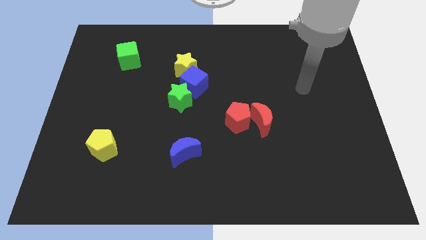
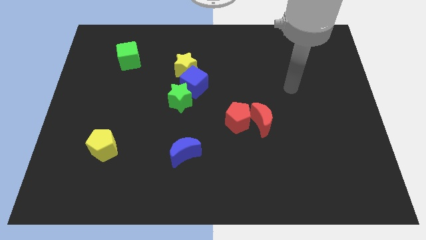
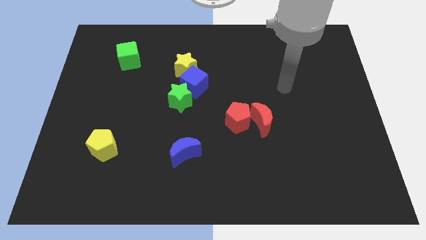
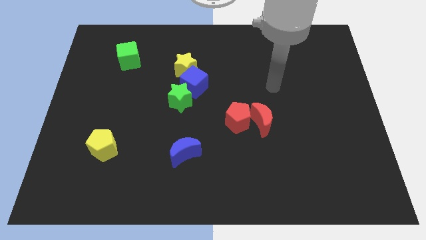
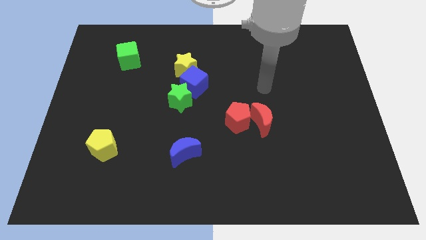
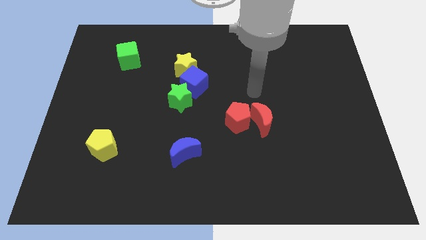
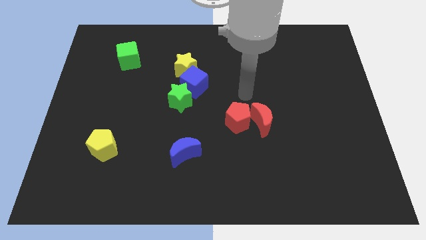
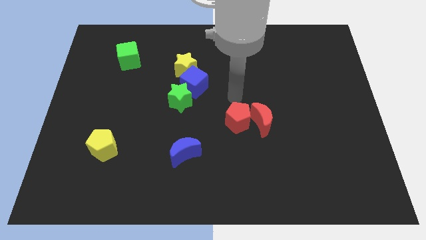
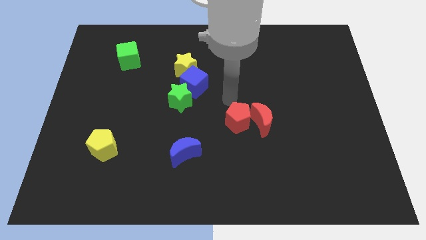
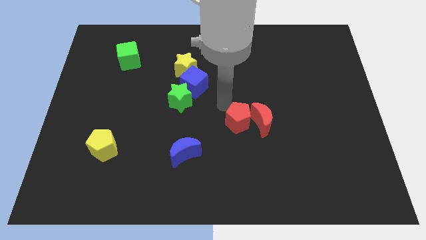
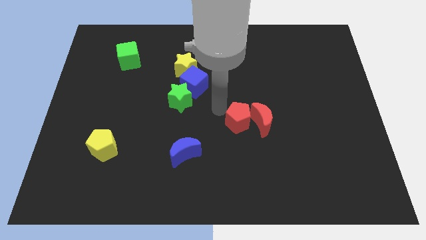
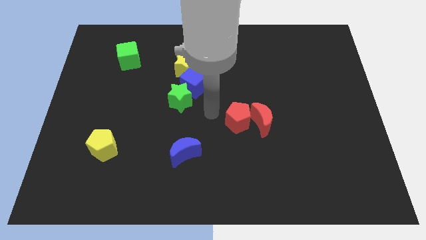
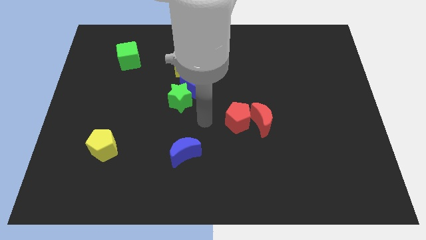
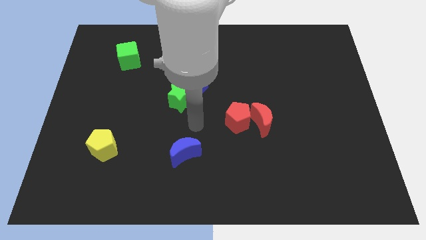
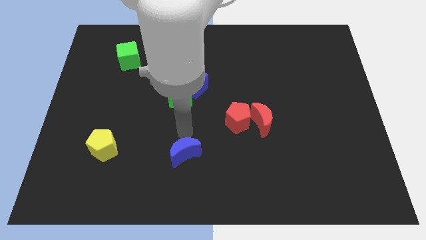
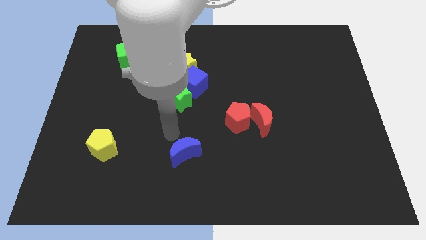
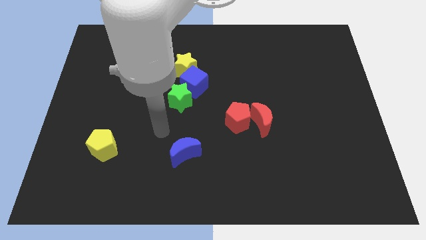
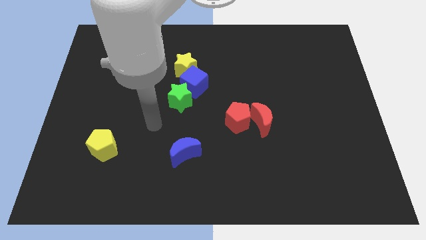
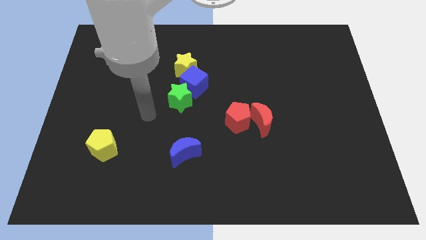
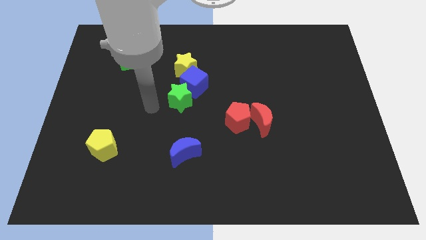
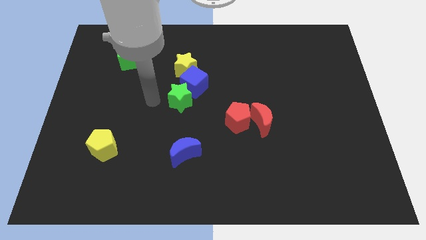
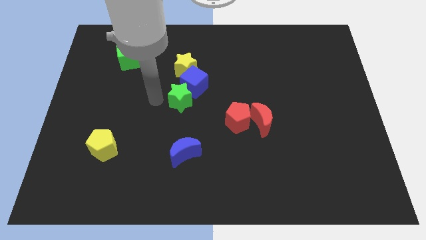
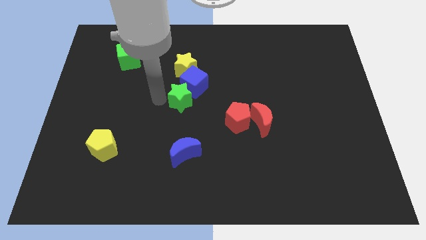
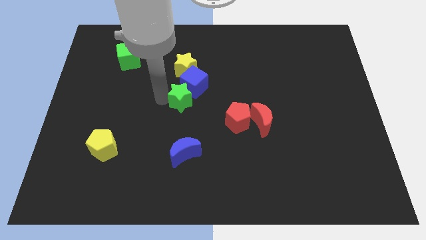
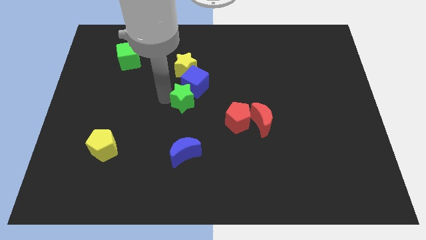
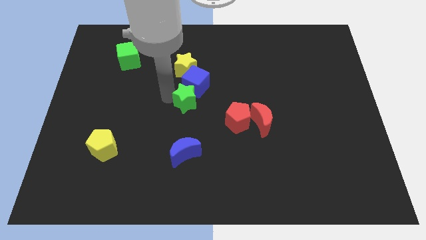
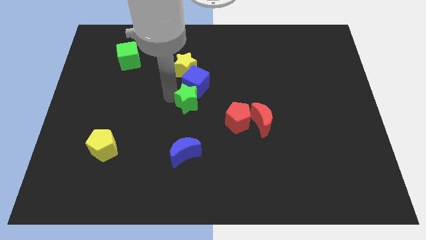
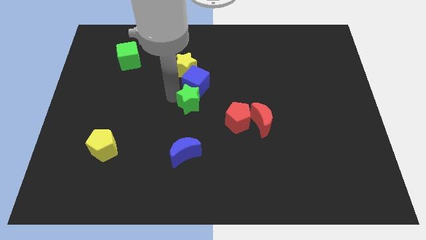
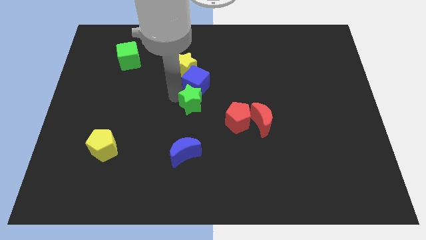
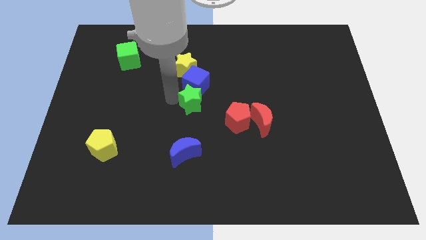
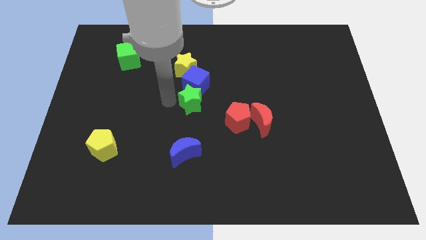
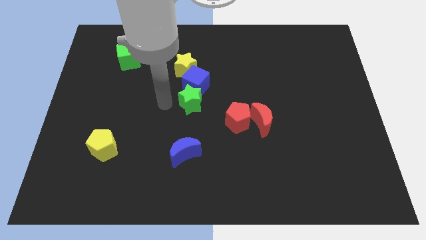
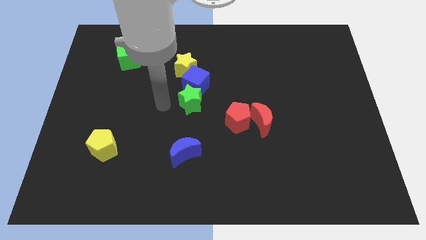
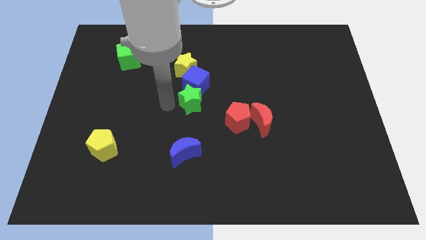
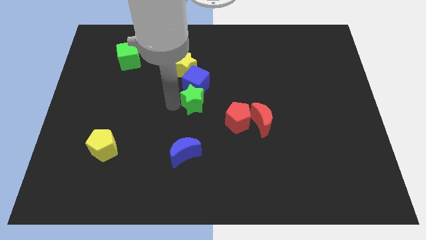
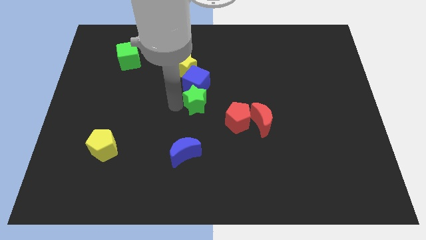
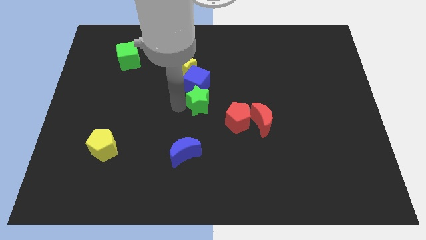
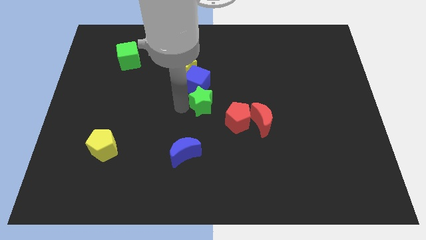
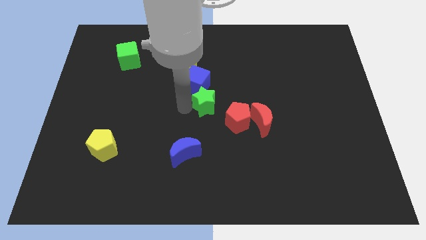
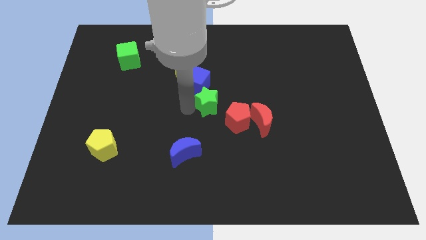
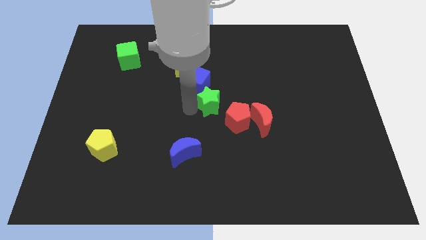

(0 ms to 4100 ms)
slightly slide the green star right

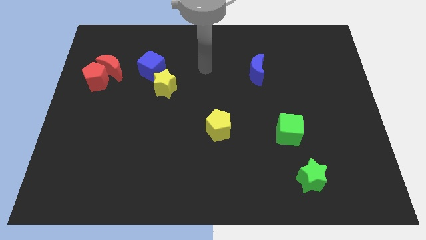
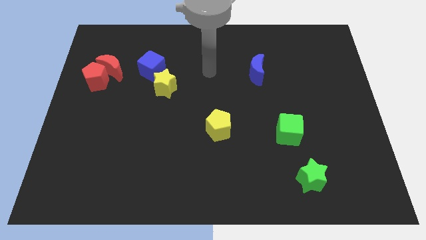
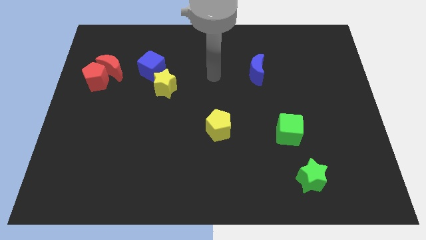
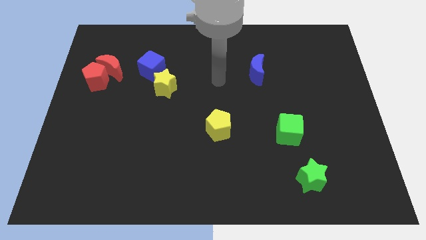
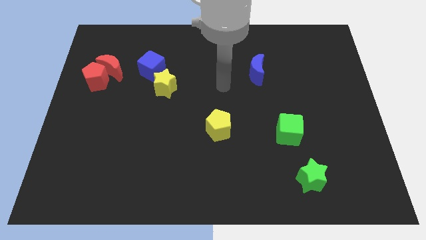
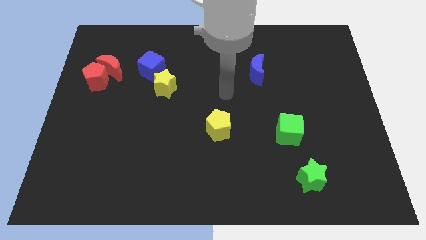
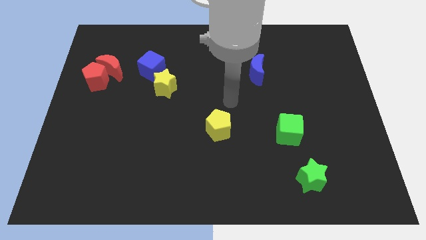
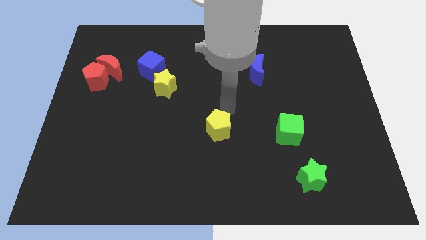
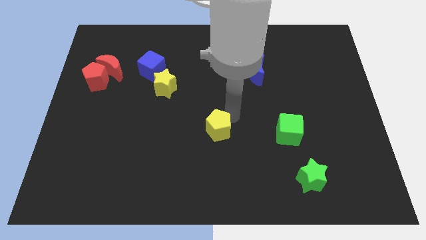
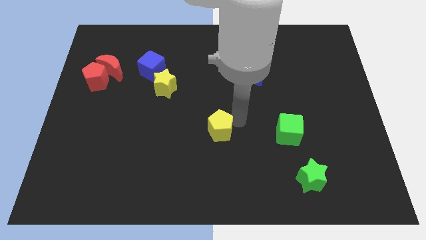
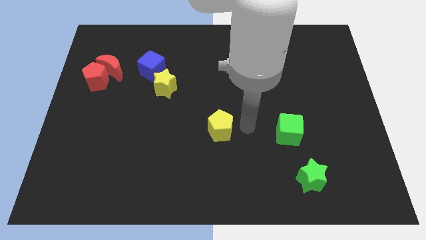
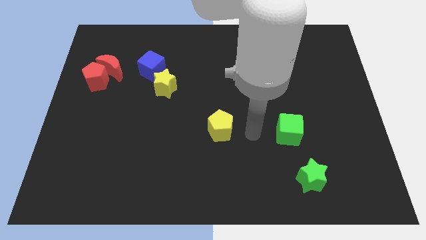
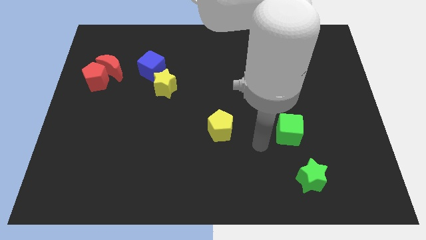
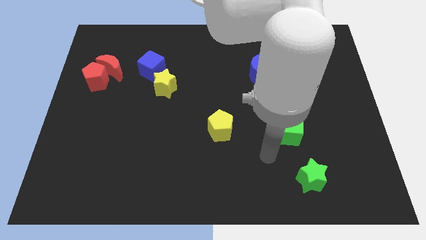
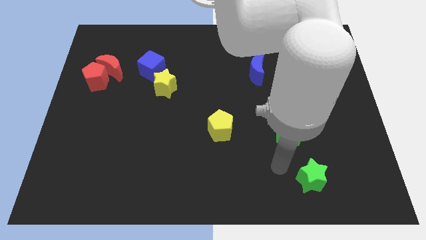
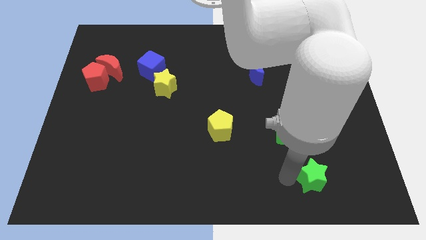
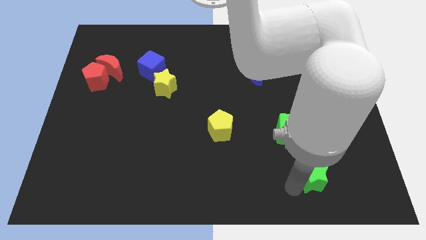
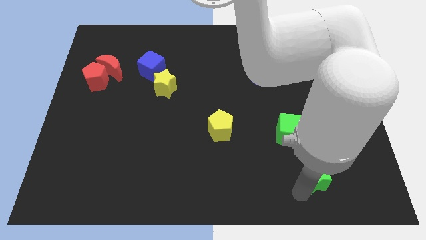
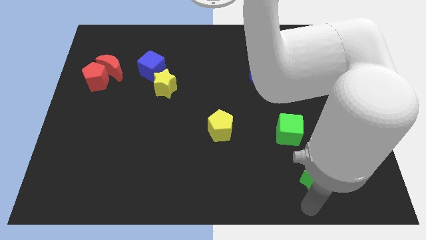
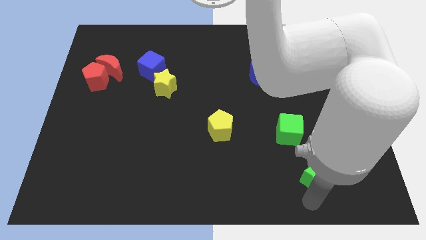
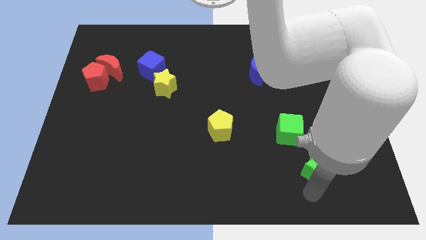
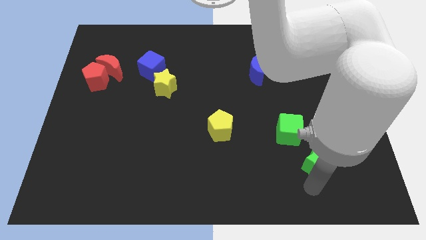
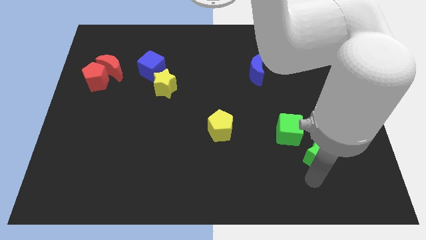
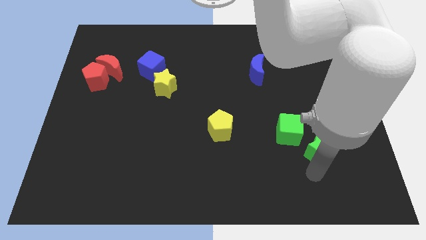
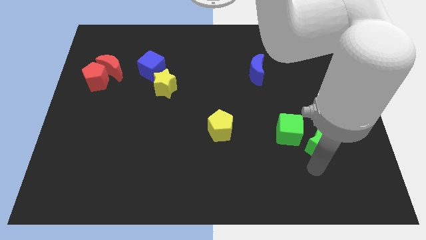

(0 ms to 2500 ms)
slightly move the green star up

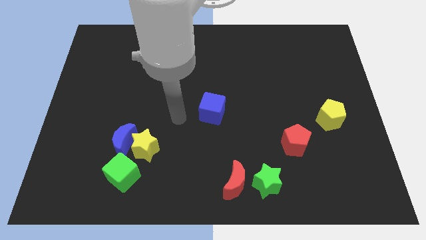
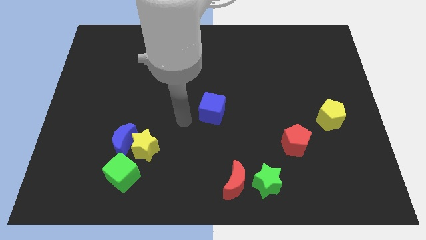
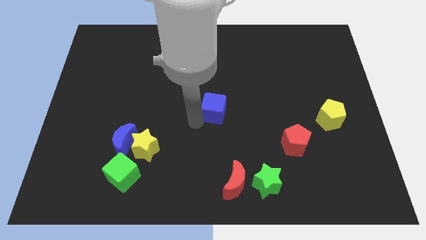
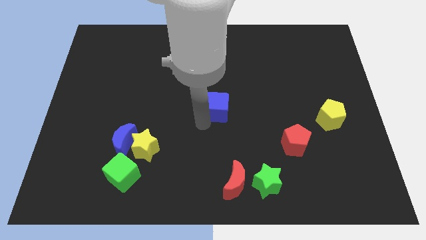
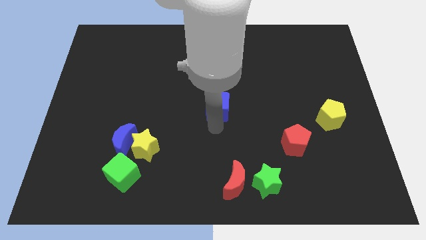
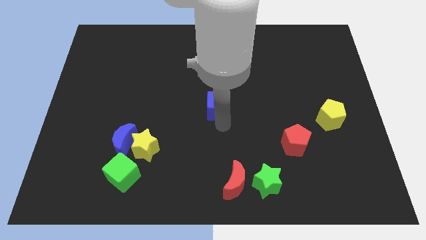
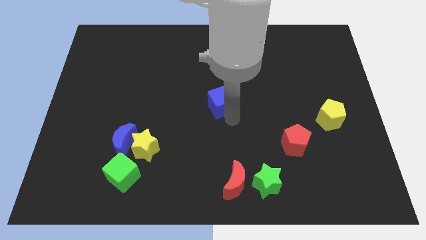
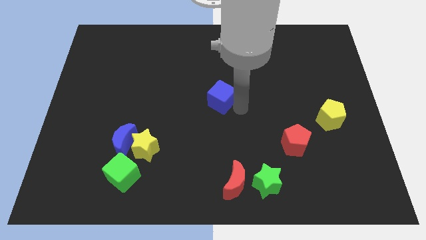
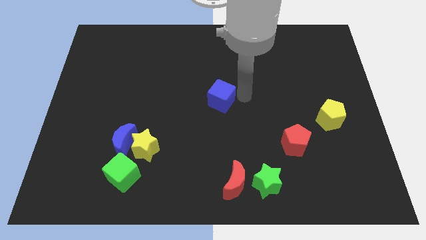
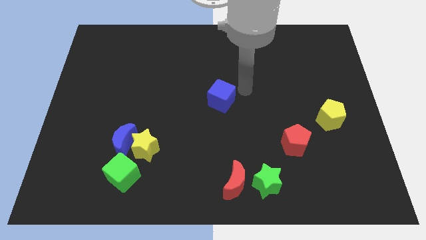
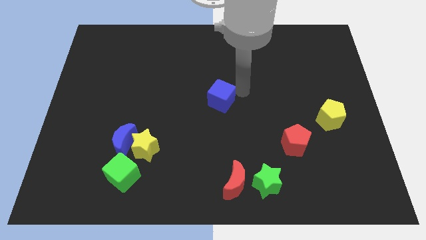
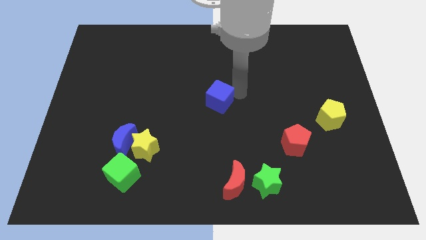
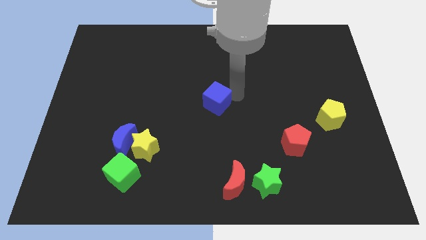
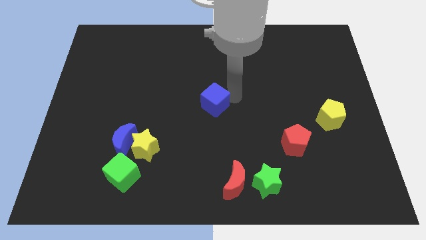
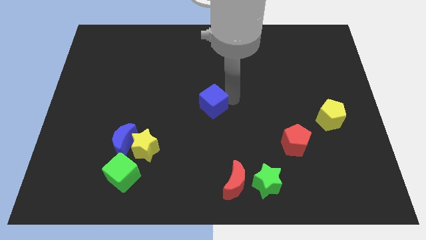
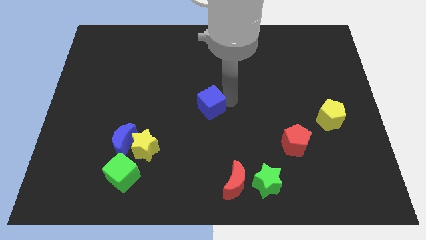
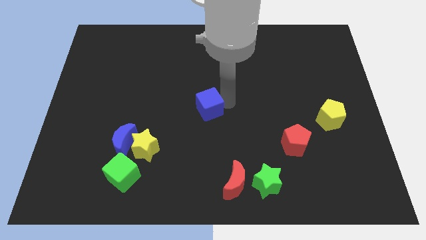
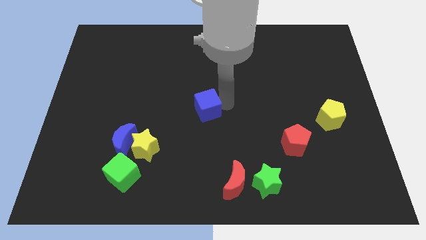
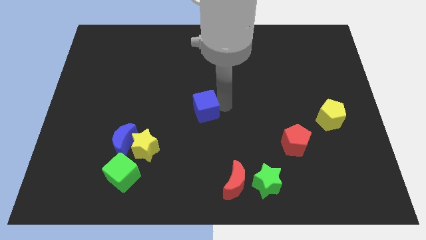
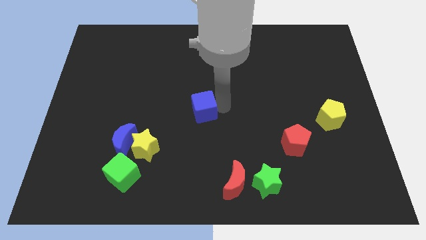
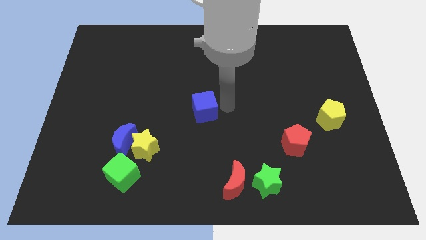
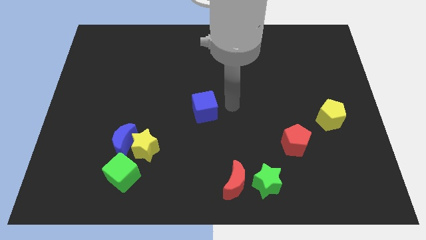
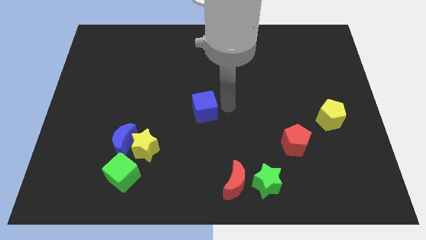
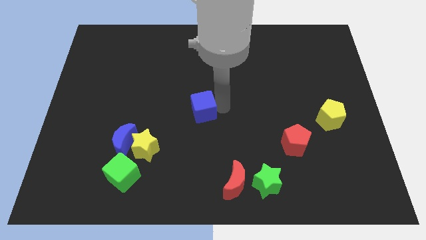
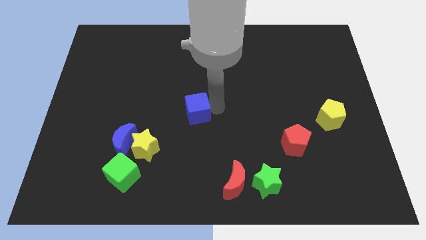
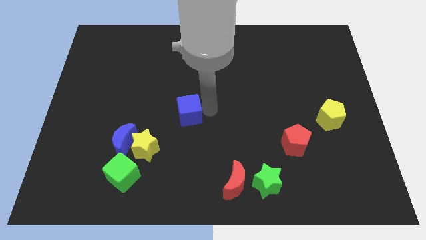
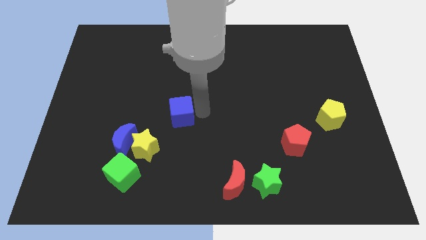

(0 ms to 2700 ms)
move the blue cube to the left a bit
